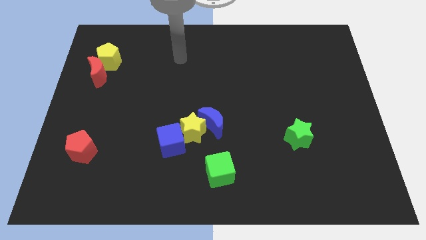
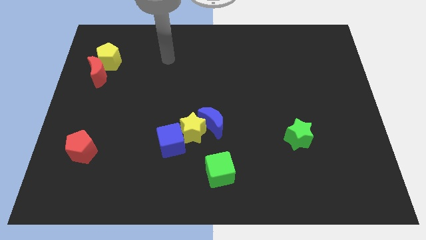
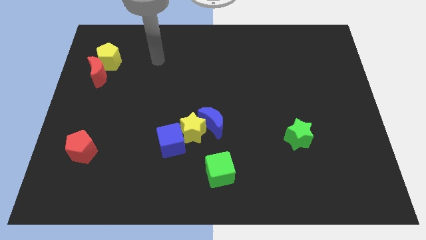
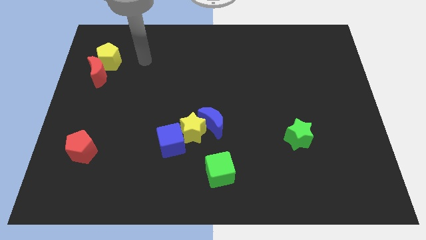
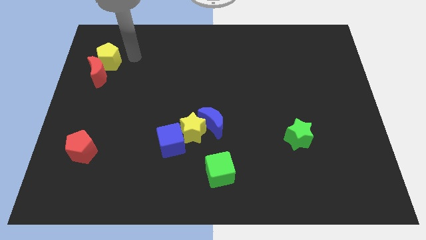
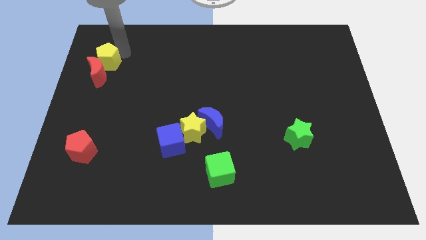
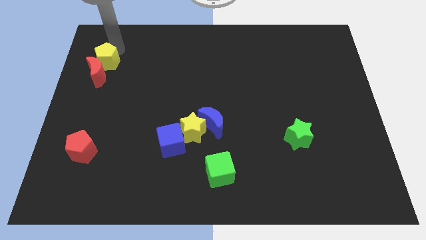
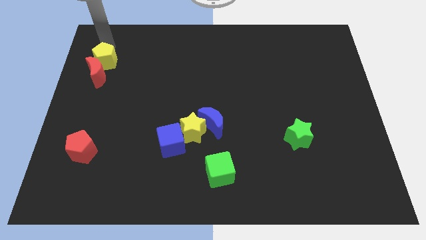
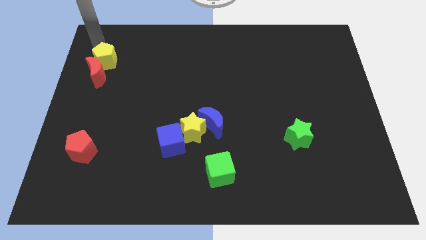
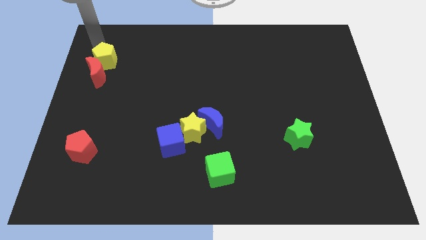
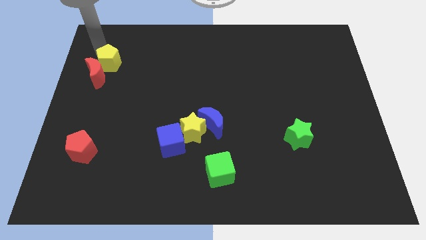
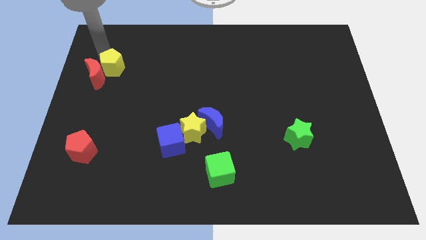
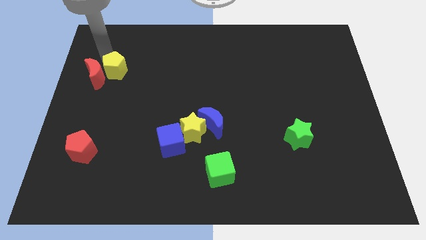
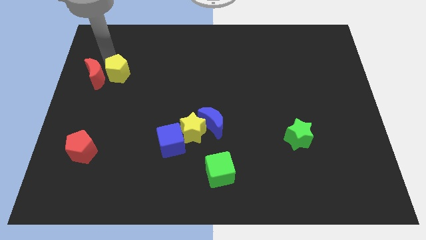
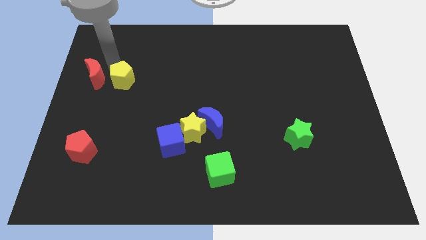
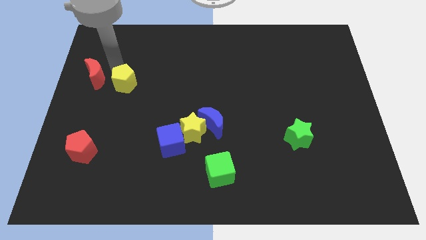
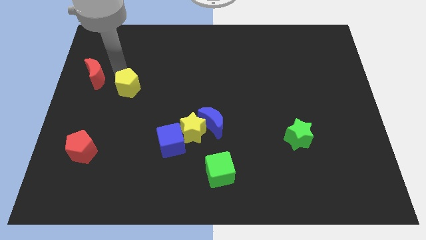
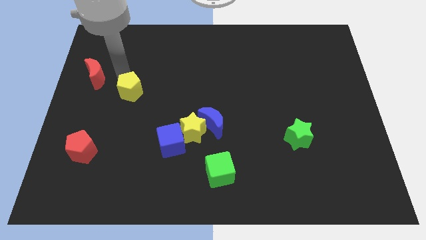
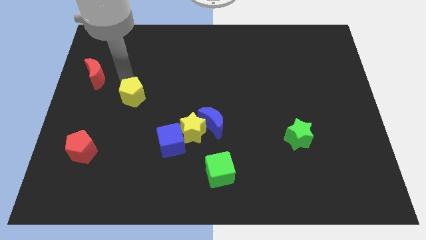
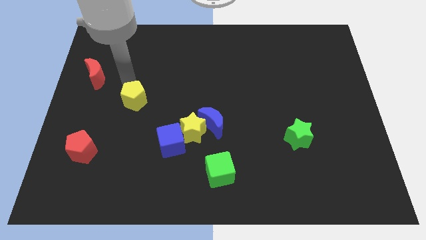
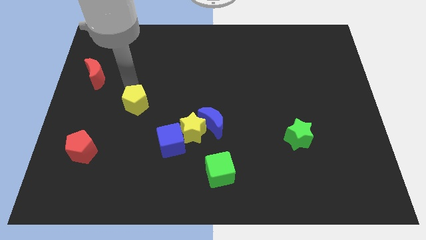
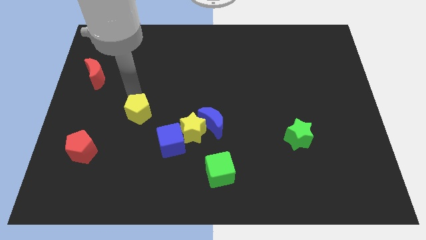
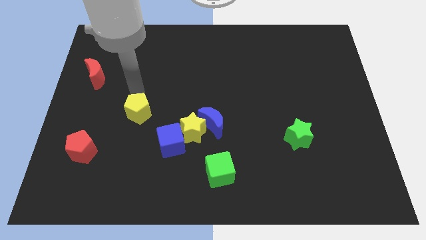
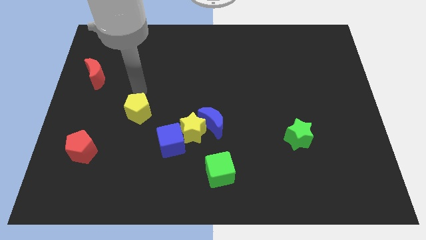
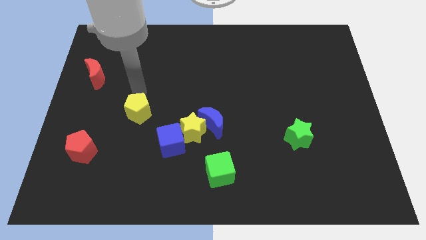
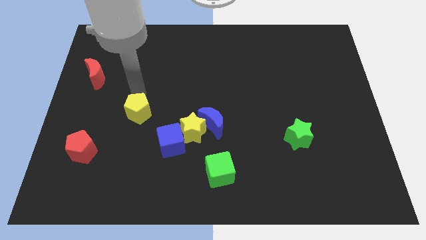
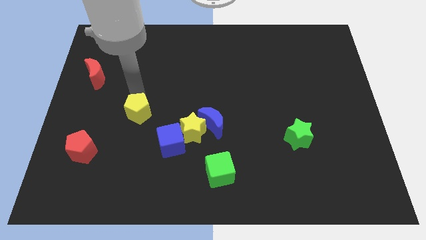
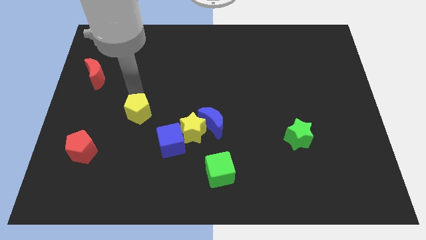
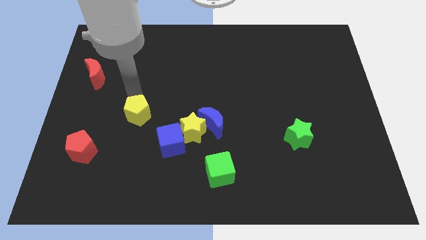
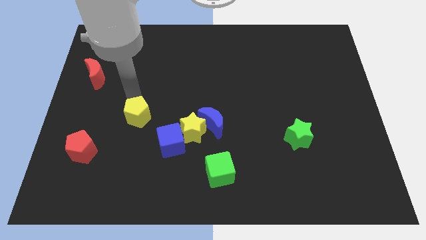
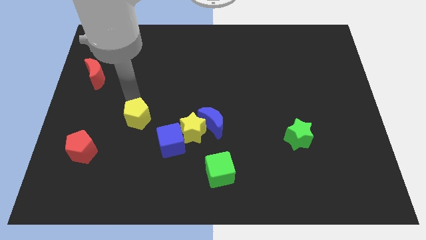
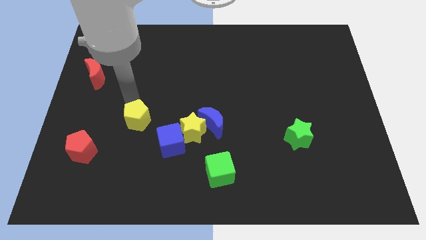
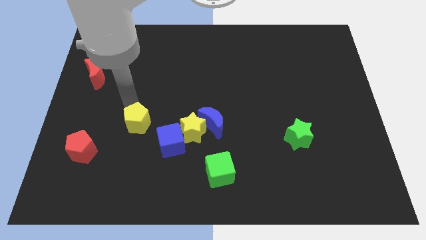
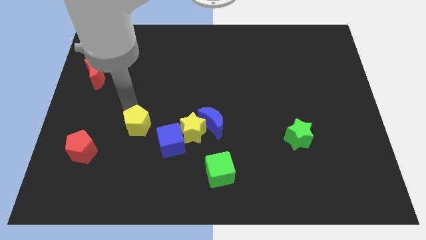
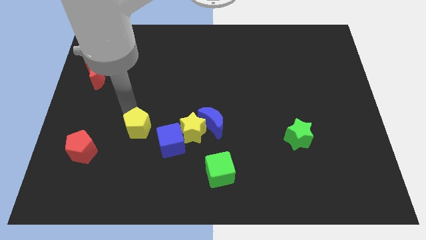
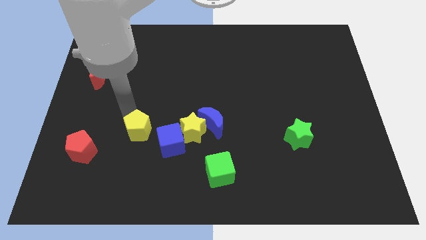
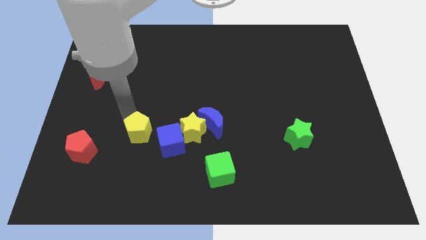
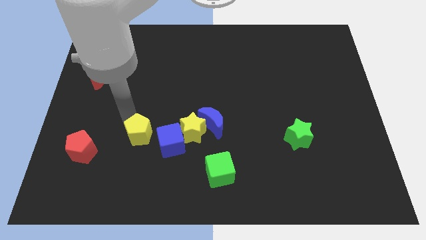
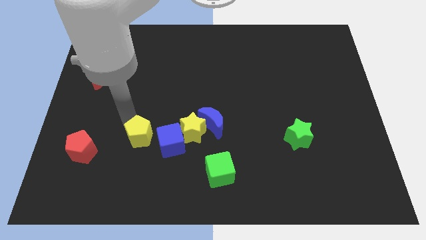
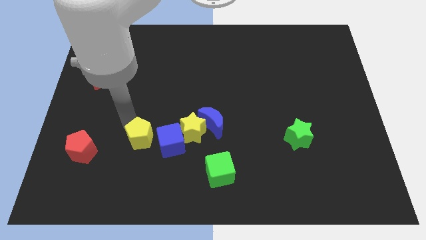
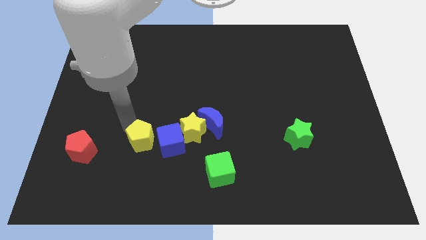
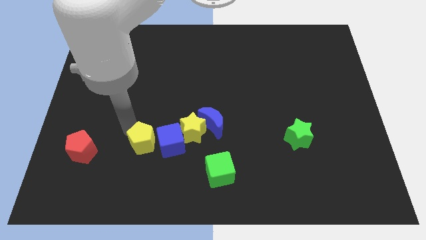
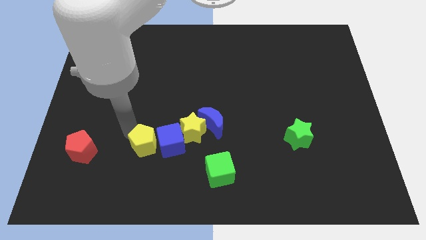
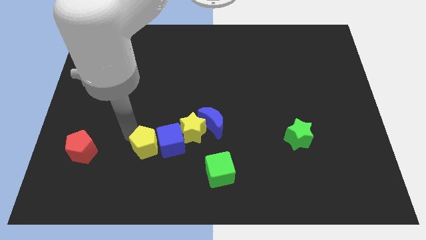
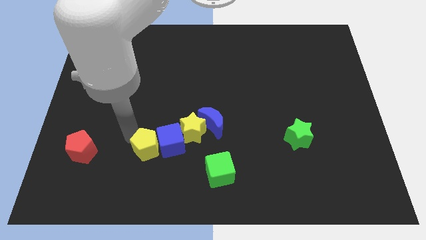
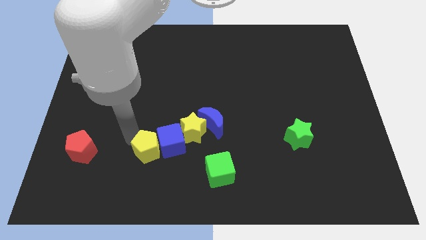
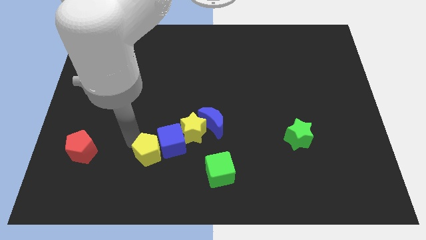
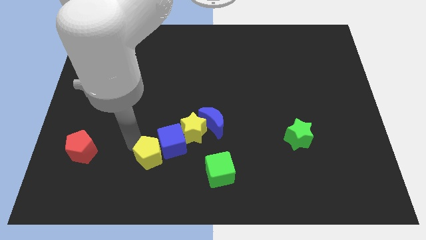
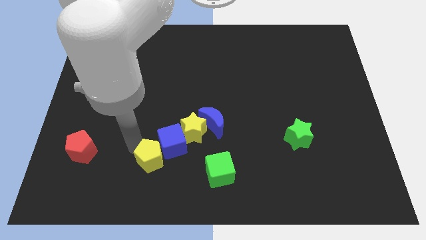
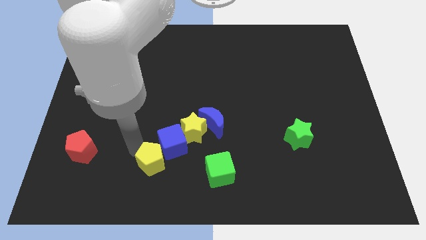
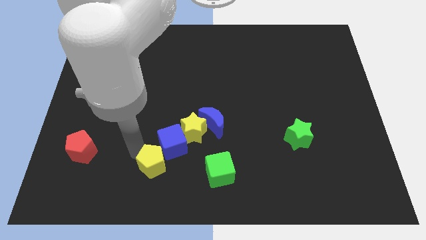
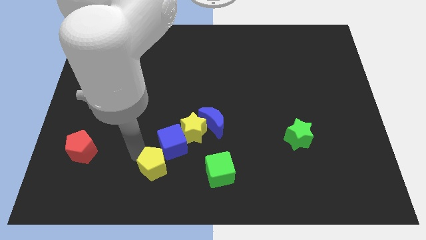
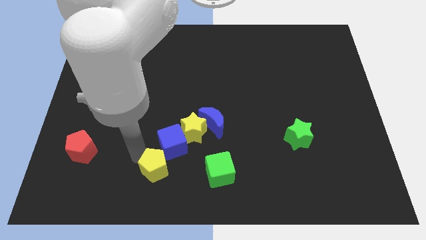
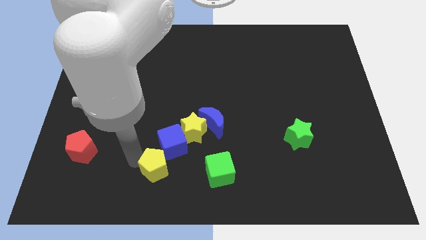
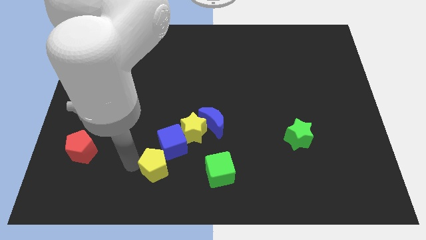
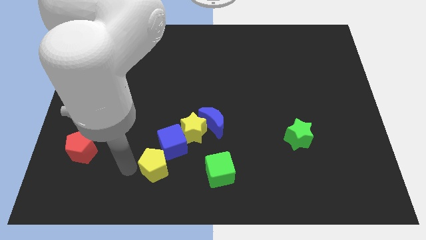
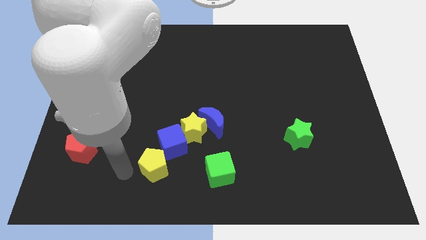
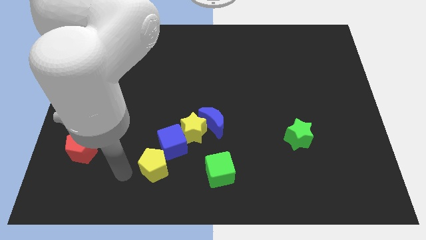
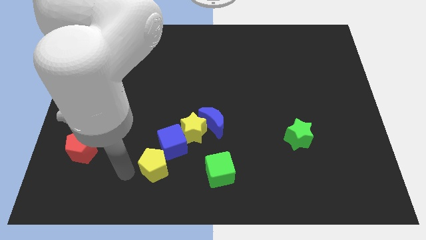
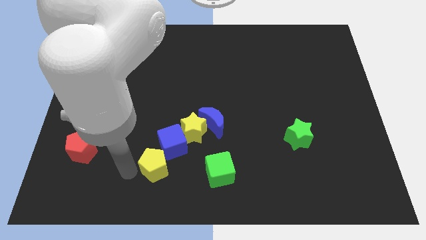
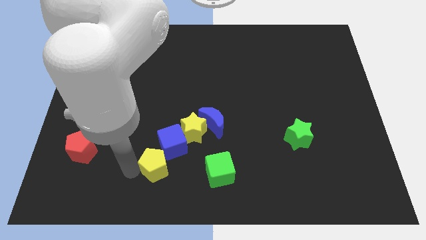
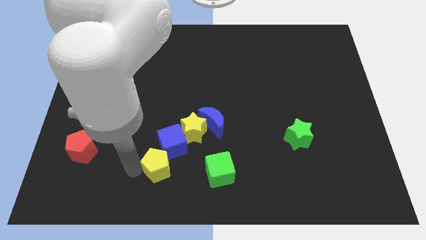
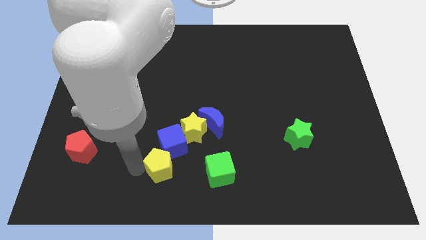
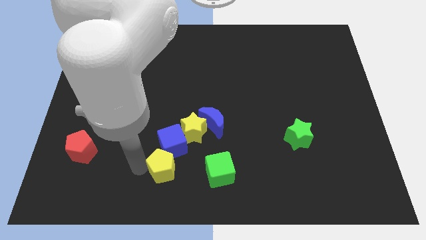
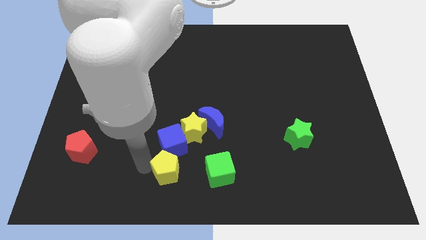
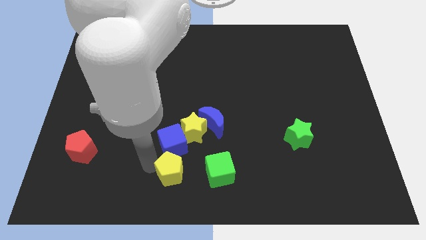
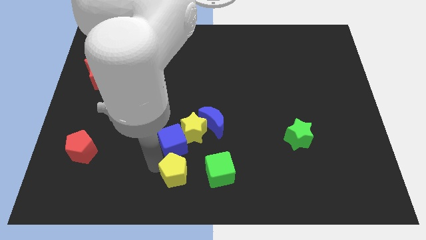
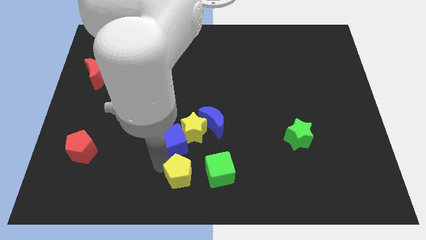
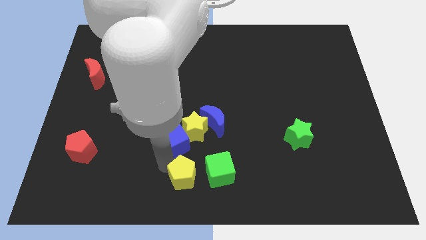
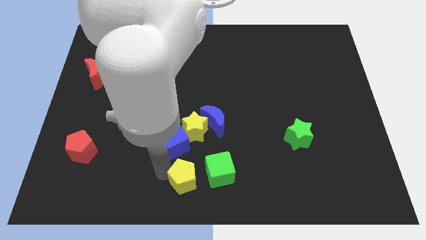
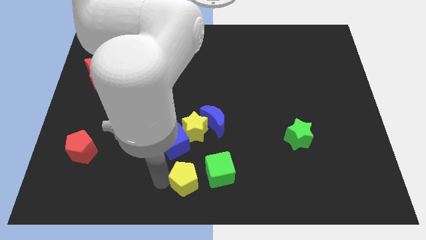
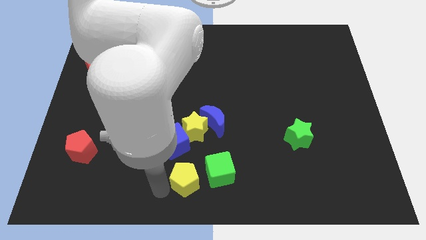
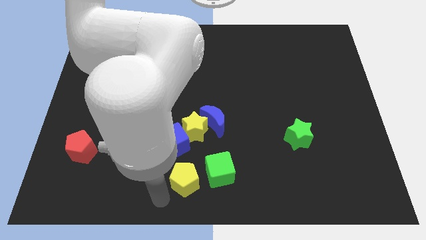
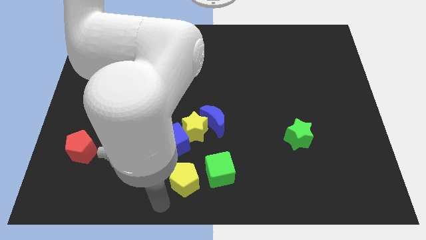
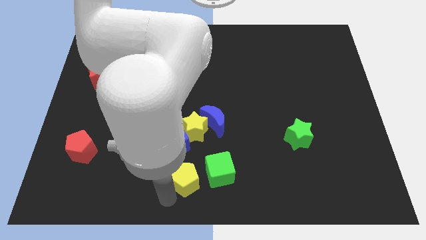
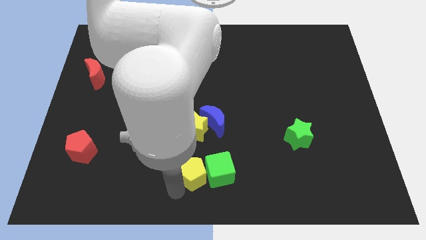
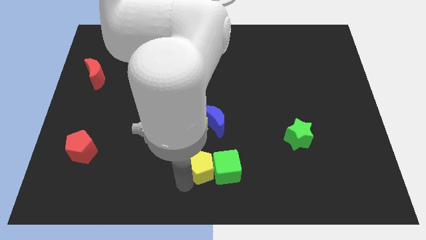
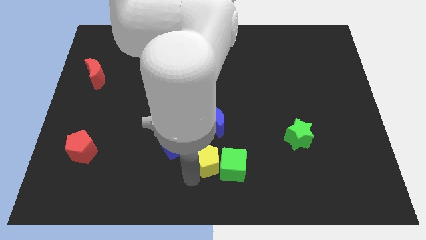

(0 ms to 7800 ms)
push the yellow pentagon diagonally down and to the right of the yellow star
